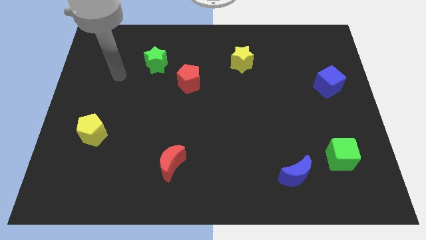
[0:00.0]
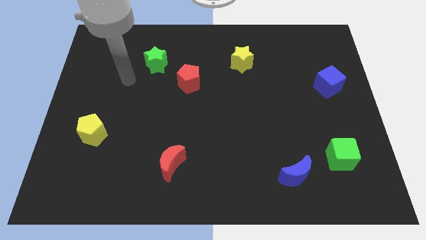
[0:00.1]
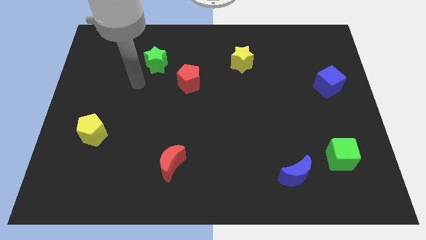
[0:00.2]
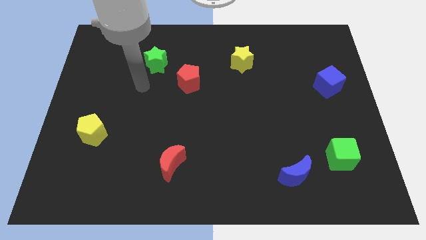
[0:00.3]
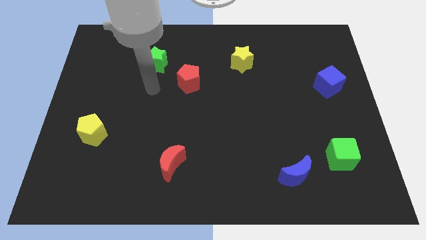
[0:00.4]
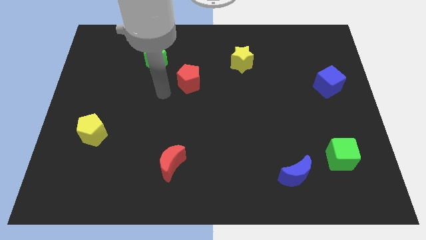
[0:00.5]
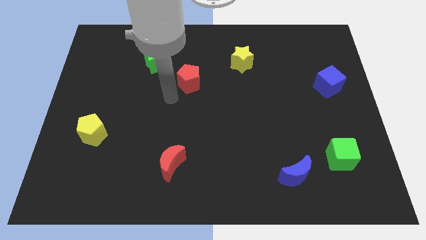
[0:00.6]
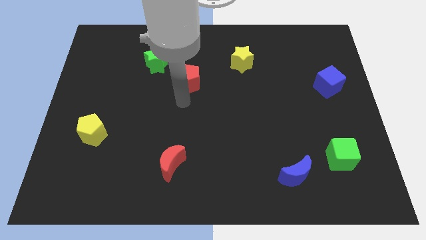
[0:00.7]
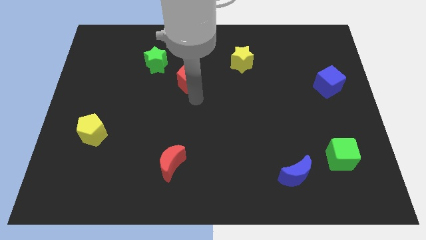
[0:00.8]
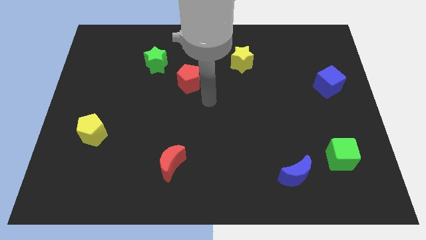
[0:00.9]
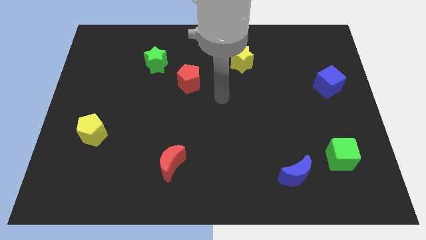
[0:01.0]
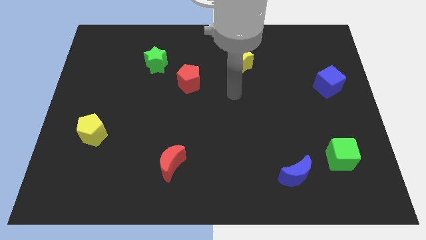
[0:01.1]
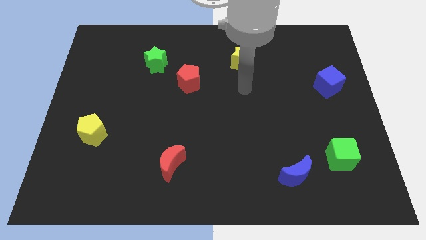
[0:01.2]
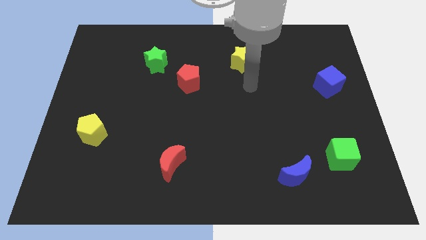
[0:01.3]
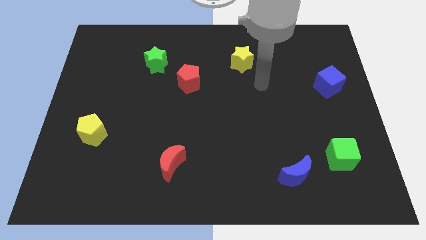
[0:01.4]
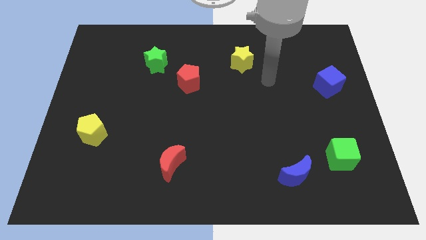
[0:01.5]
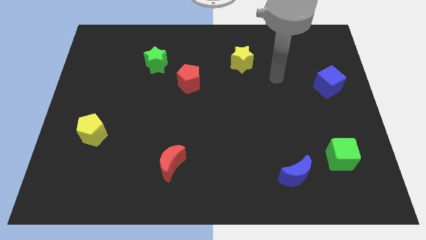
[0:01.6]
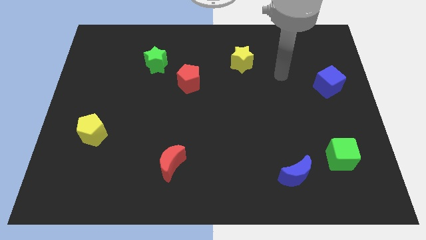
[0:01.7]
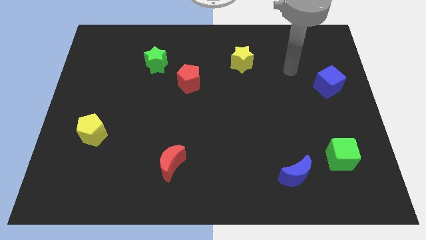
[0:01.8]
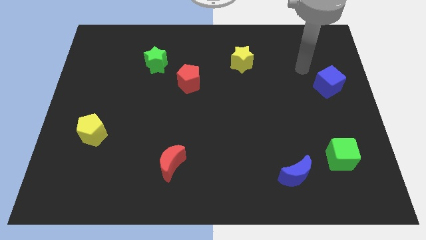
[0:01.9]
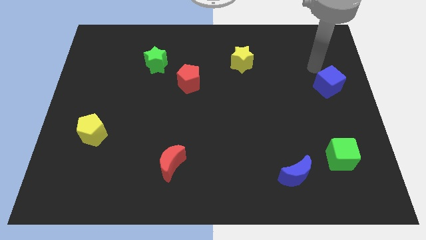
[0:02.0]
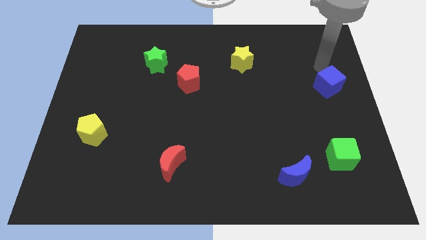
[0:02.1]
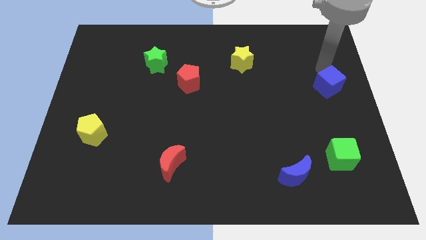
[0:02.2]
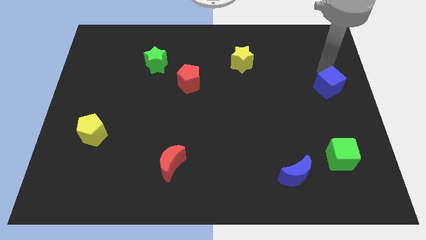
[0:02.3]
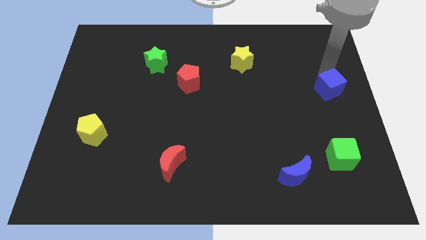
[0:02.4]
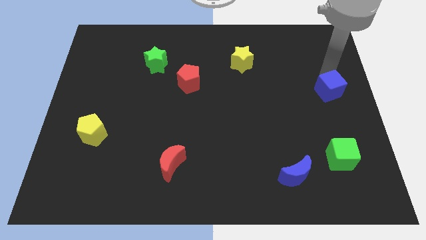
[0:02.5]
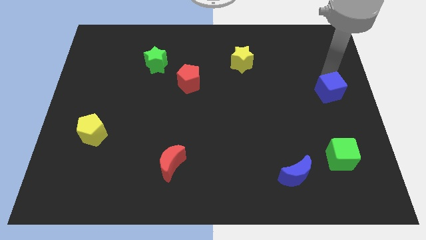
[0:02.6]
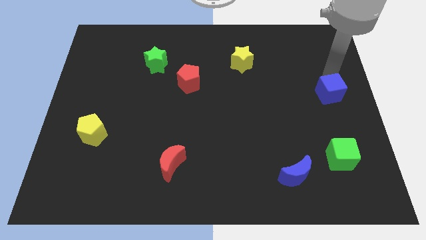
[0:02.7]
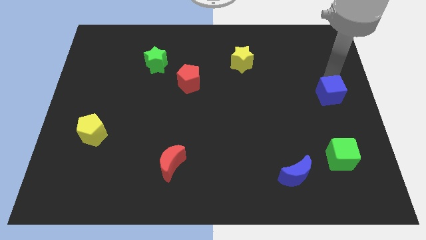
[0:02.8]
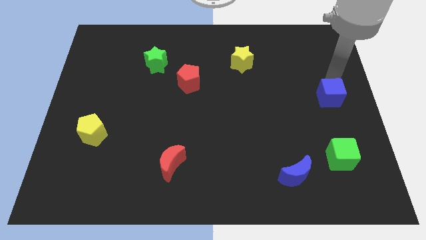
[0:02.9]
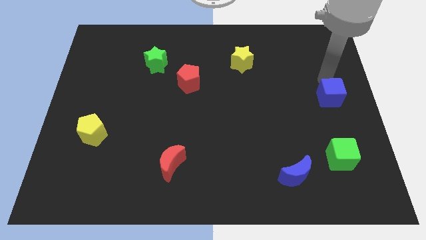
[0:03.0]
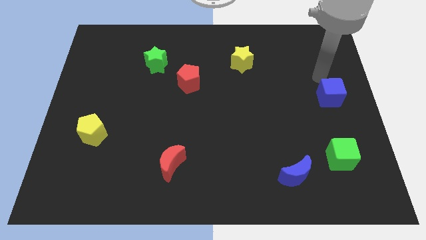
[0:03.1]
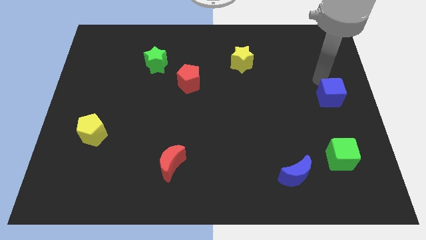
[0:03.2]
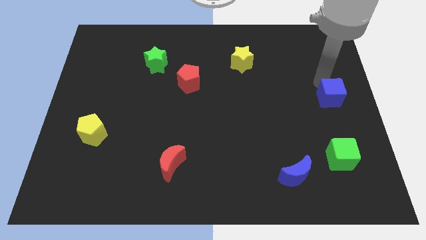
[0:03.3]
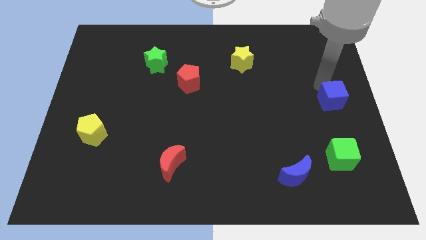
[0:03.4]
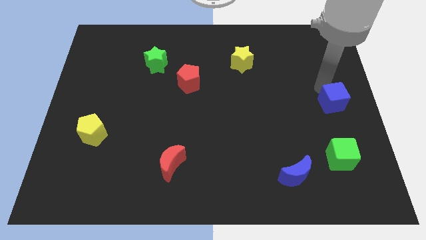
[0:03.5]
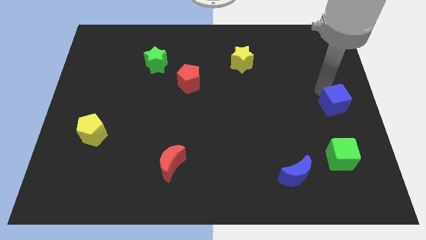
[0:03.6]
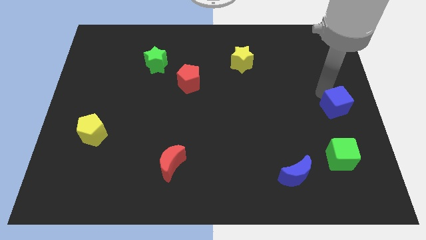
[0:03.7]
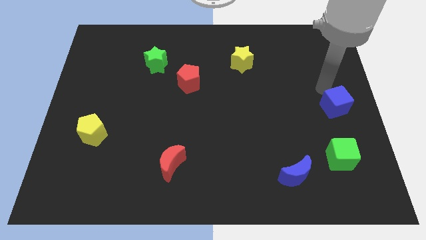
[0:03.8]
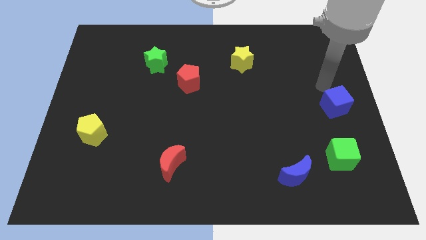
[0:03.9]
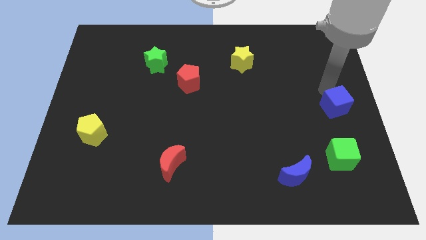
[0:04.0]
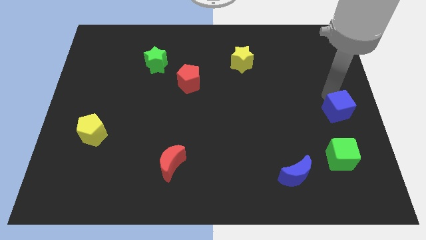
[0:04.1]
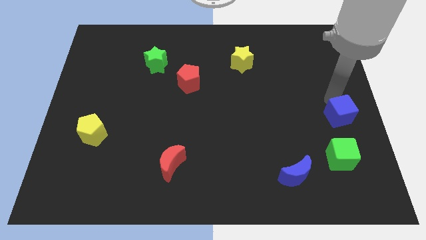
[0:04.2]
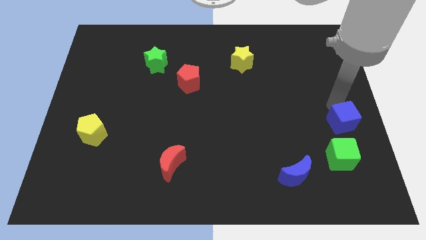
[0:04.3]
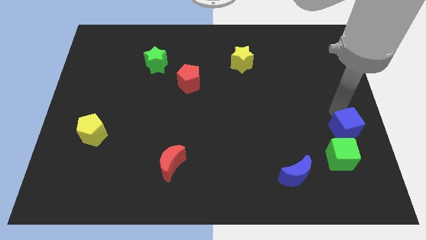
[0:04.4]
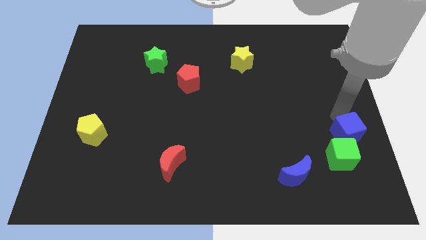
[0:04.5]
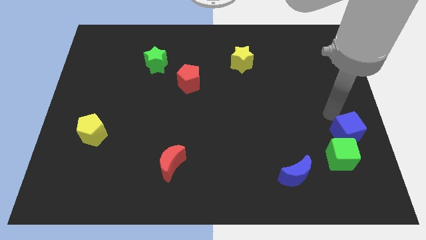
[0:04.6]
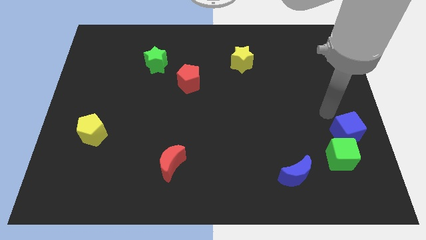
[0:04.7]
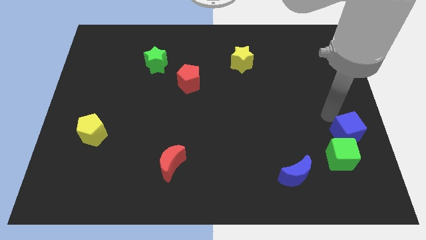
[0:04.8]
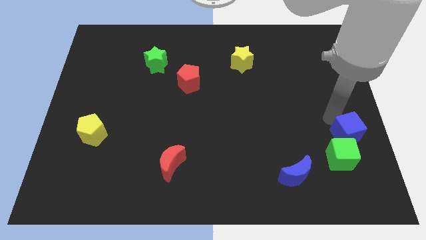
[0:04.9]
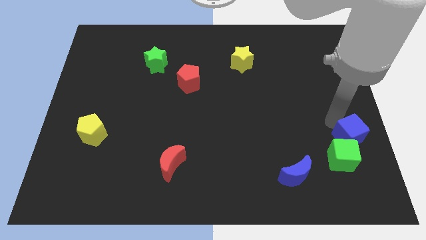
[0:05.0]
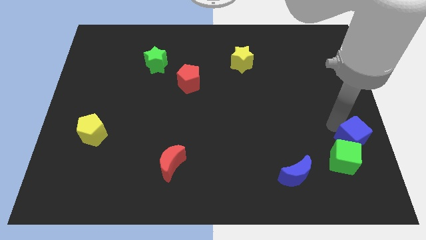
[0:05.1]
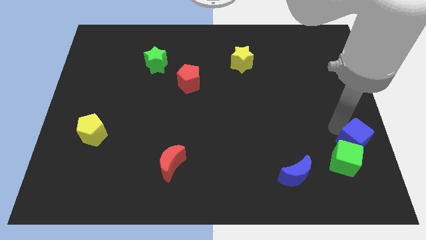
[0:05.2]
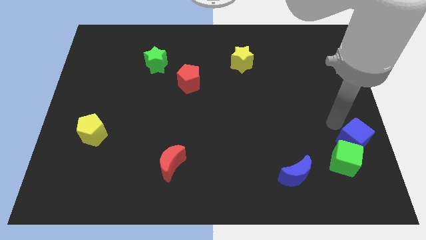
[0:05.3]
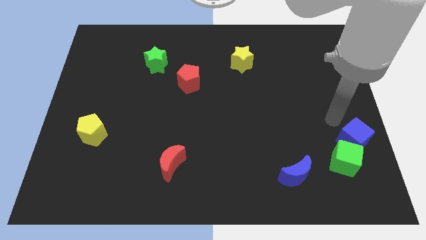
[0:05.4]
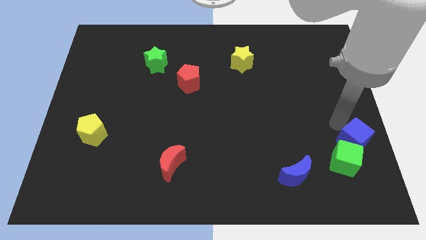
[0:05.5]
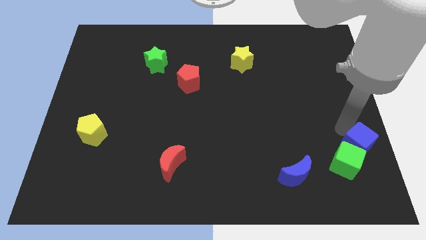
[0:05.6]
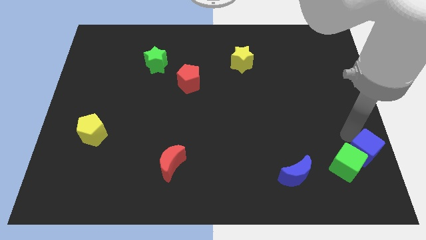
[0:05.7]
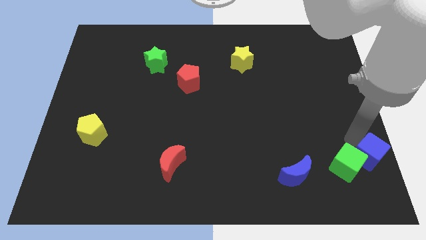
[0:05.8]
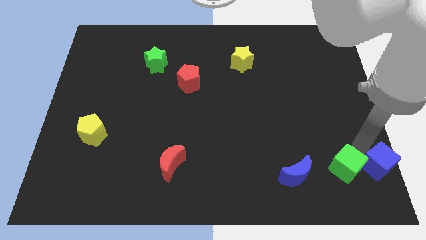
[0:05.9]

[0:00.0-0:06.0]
move the blue cube to the bottom right corner

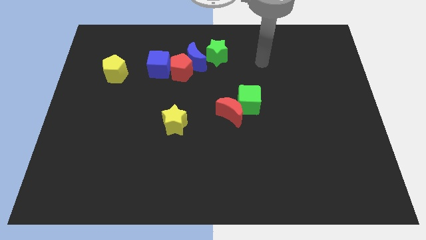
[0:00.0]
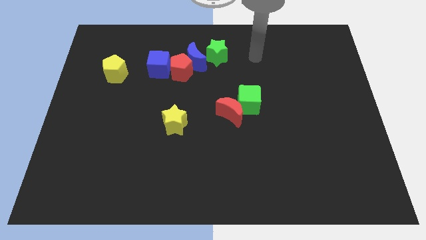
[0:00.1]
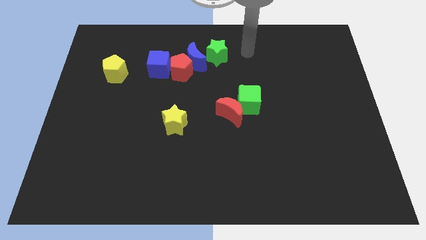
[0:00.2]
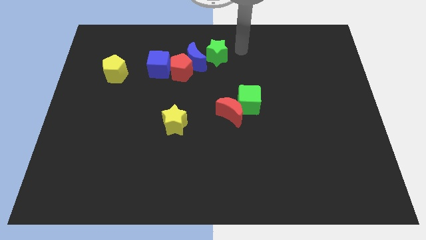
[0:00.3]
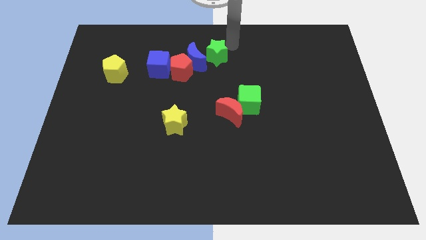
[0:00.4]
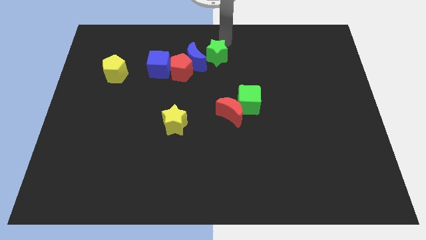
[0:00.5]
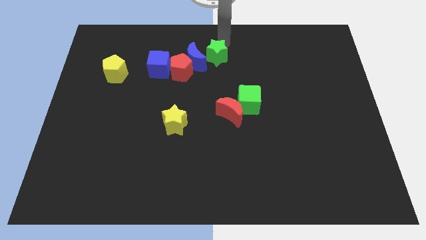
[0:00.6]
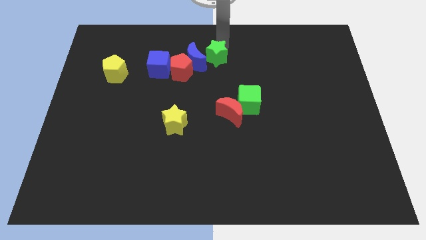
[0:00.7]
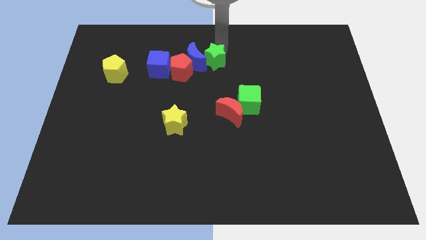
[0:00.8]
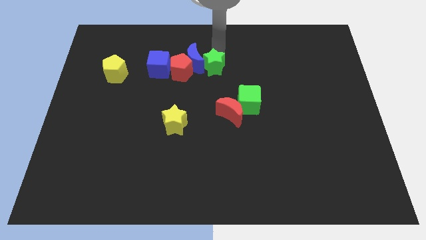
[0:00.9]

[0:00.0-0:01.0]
put the green star to the middle
